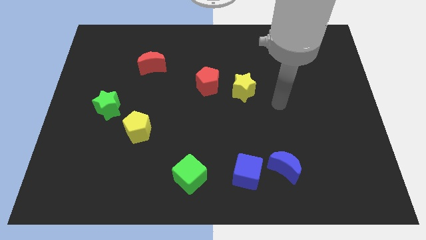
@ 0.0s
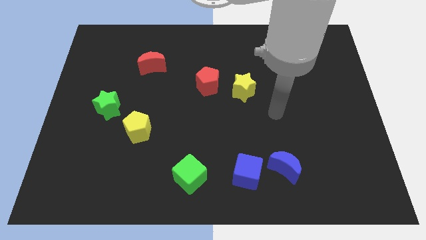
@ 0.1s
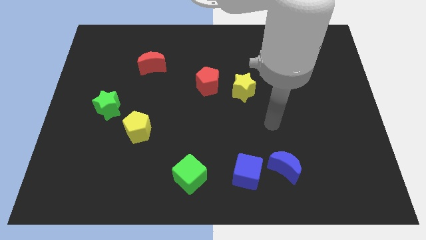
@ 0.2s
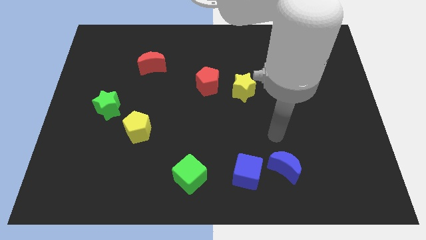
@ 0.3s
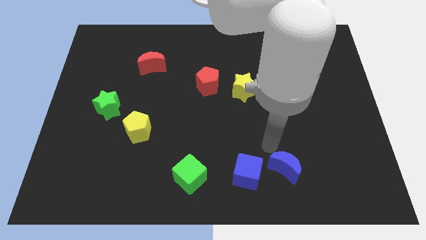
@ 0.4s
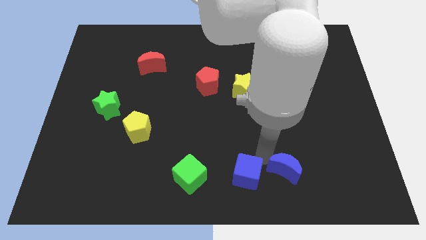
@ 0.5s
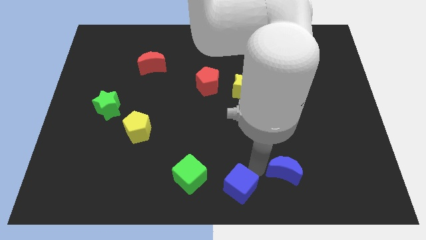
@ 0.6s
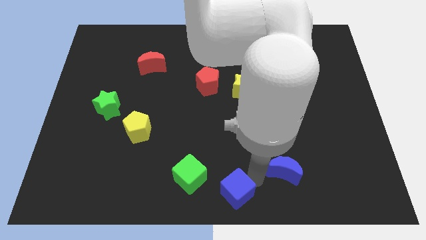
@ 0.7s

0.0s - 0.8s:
move the blue moon away from the blue cube

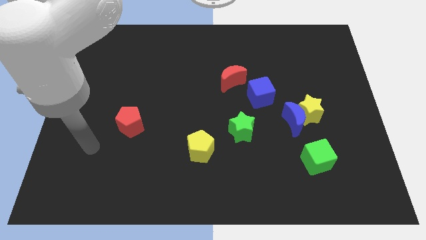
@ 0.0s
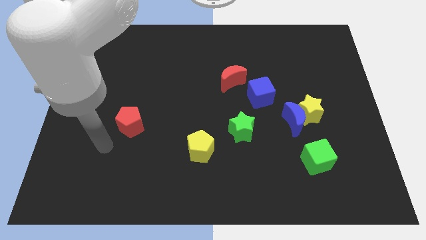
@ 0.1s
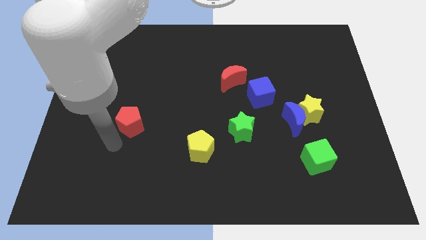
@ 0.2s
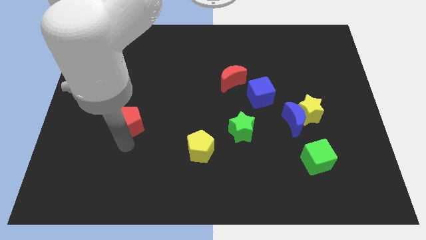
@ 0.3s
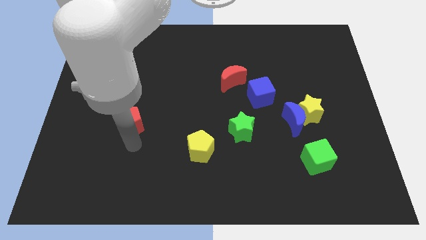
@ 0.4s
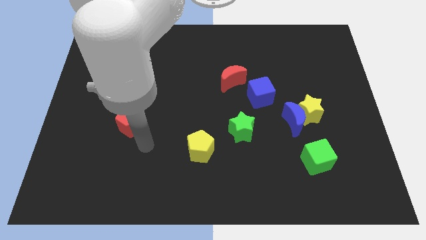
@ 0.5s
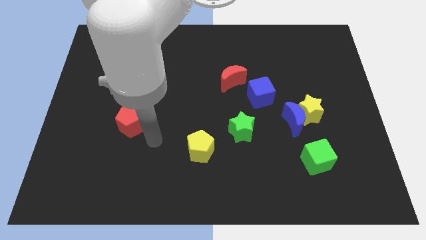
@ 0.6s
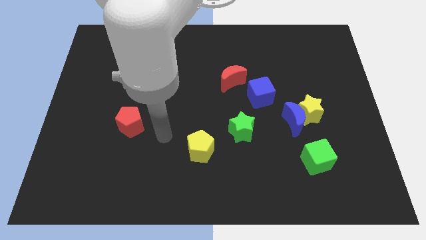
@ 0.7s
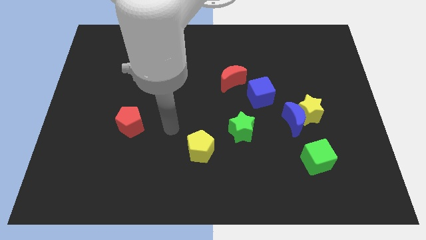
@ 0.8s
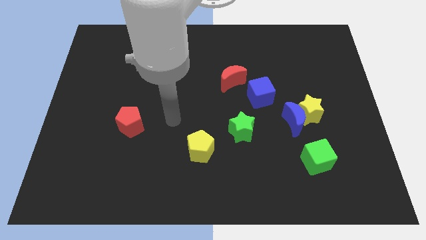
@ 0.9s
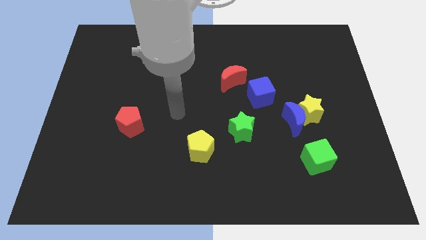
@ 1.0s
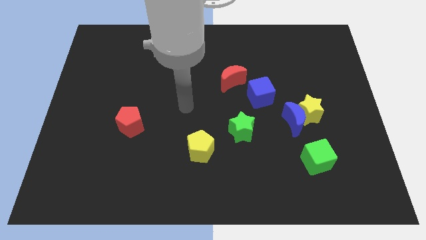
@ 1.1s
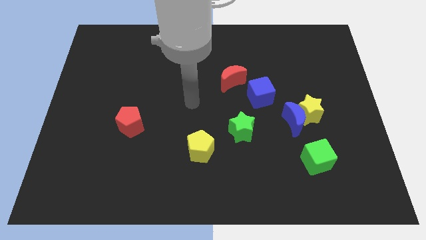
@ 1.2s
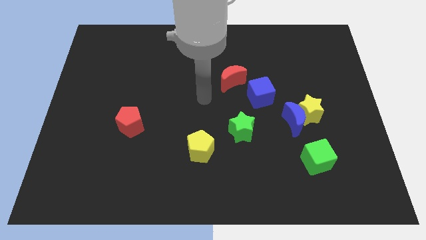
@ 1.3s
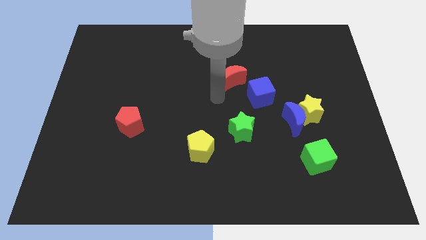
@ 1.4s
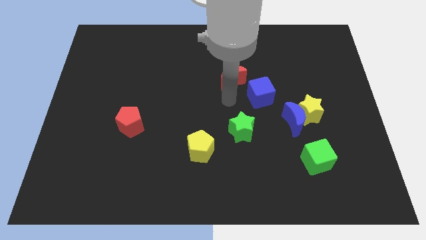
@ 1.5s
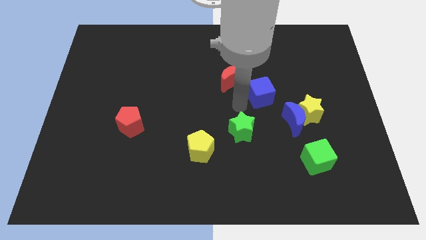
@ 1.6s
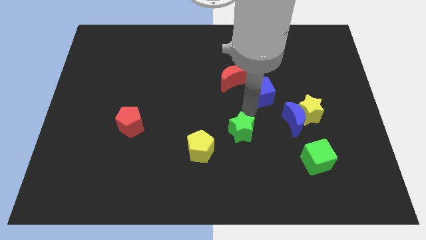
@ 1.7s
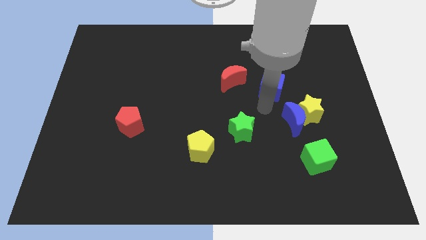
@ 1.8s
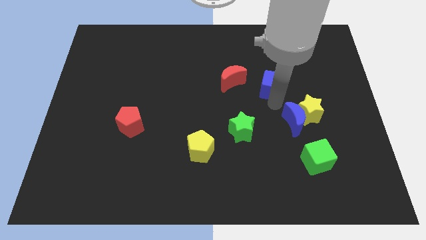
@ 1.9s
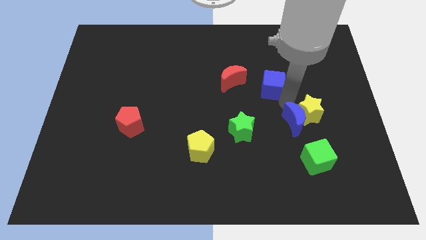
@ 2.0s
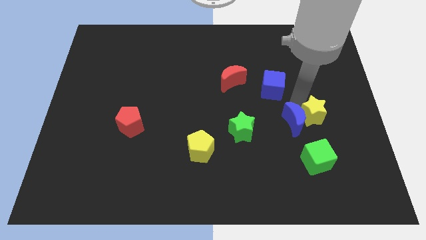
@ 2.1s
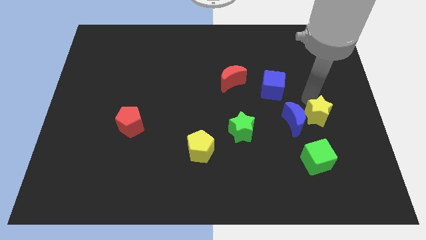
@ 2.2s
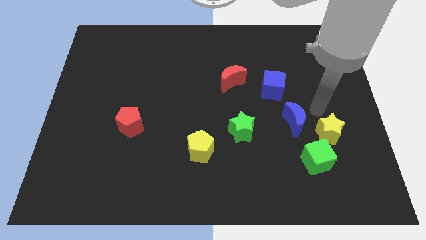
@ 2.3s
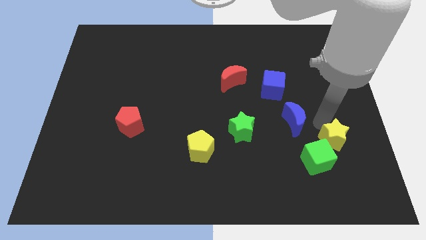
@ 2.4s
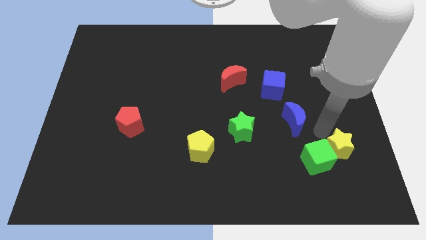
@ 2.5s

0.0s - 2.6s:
pull the blue moon apart from the yellow star

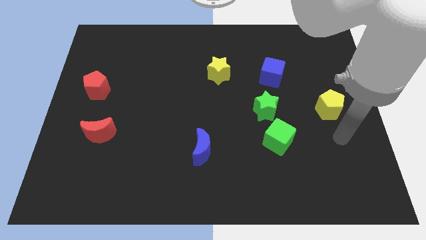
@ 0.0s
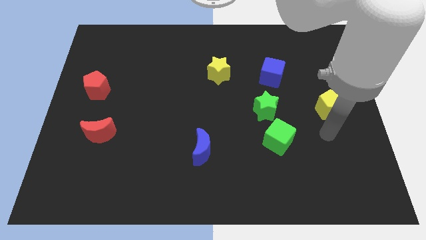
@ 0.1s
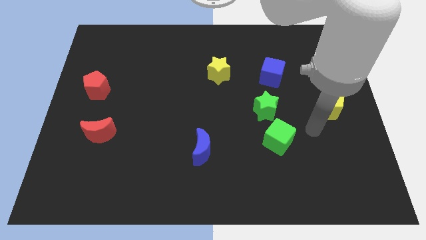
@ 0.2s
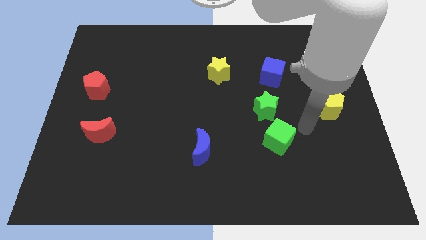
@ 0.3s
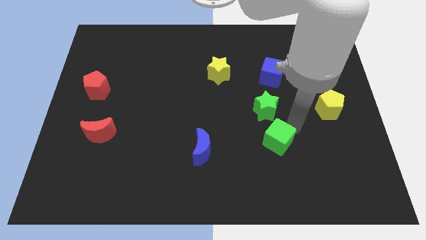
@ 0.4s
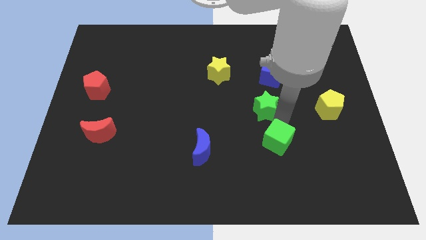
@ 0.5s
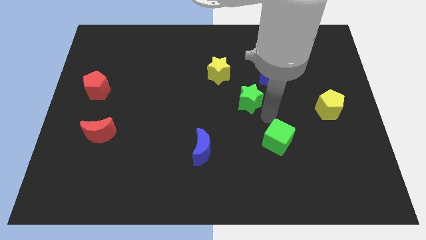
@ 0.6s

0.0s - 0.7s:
move the green cube away from the green star

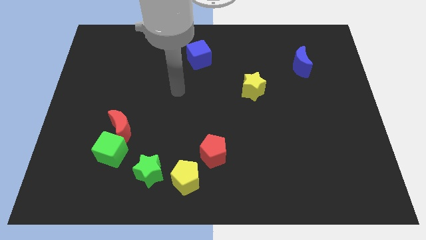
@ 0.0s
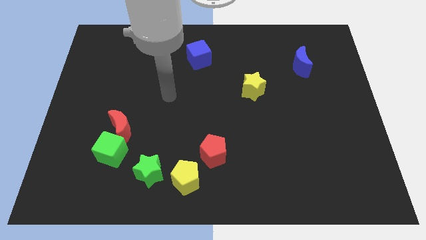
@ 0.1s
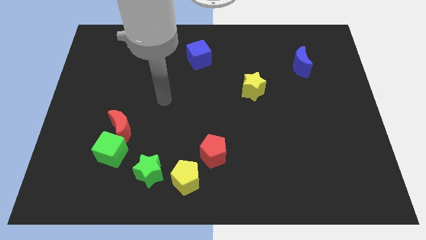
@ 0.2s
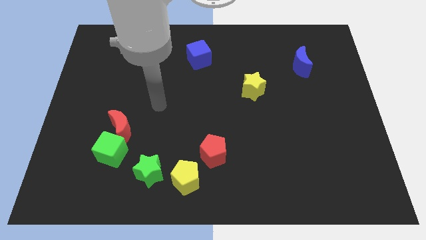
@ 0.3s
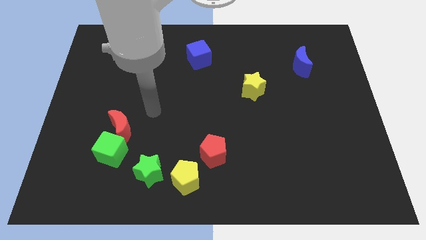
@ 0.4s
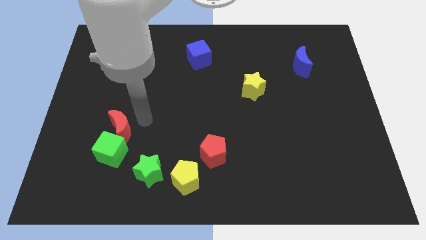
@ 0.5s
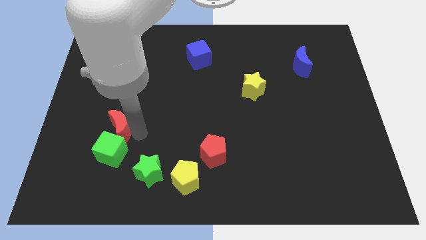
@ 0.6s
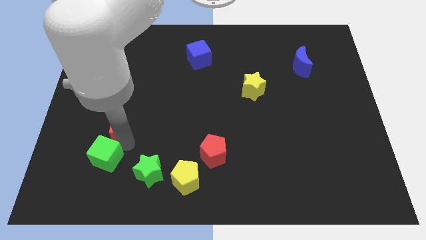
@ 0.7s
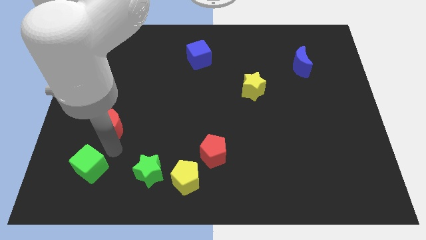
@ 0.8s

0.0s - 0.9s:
separate the red moon from the green cube

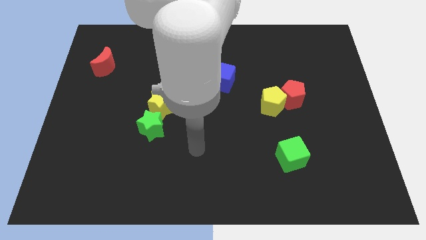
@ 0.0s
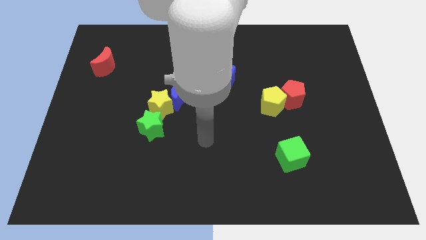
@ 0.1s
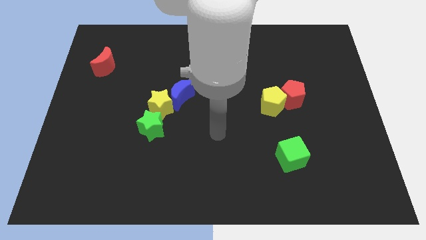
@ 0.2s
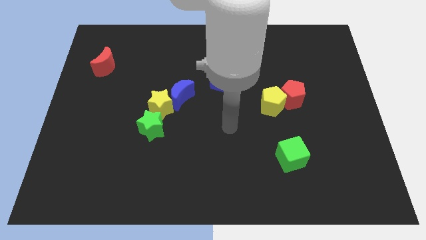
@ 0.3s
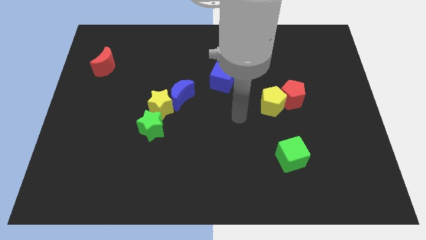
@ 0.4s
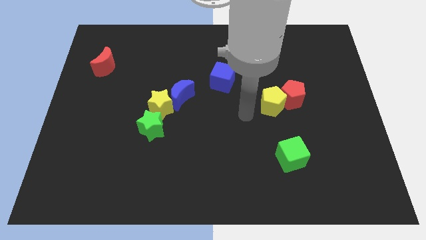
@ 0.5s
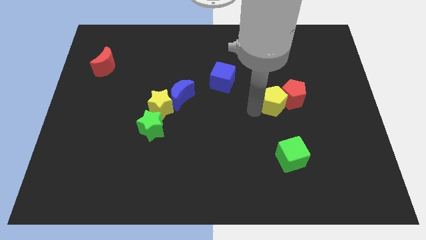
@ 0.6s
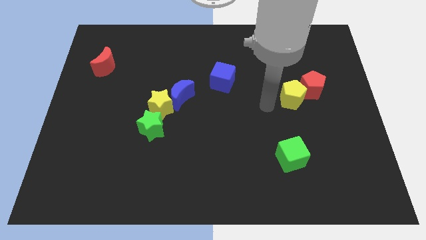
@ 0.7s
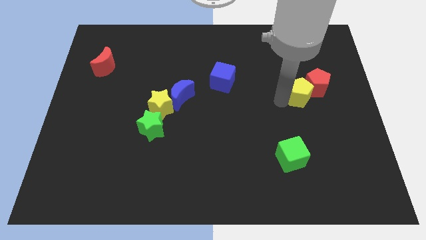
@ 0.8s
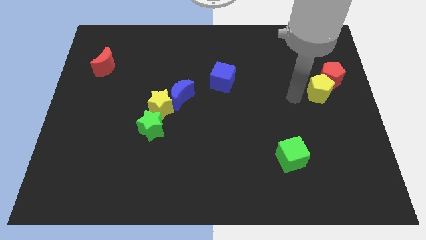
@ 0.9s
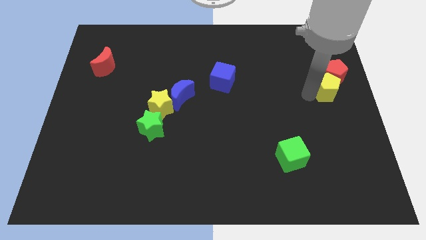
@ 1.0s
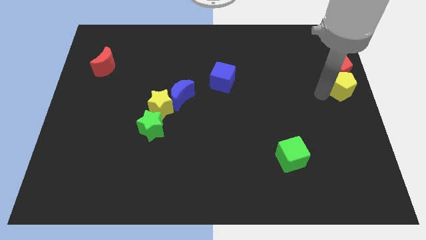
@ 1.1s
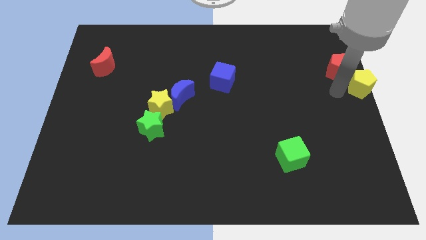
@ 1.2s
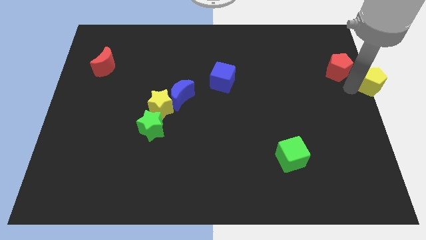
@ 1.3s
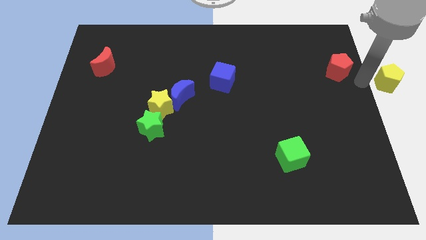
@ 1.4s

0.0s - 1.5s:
pull the red pentagon apart from the yellow pentagon

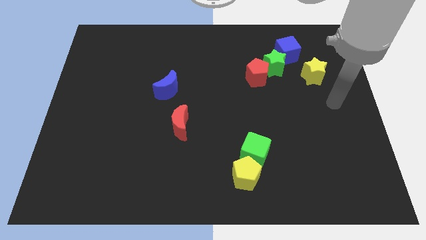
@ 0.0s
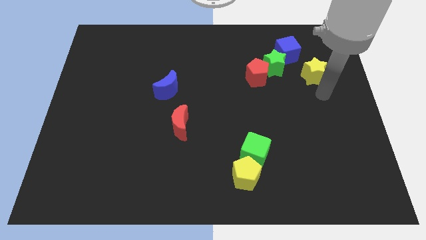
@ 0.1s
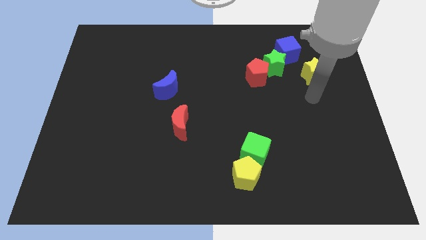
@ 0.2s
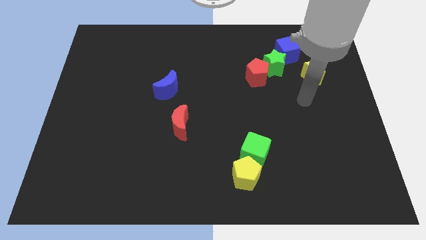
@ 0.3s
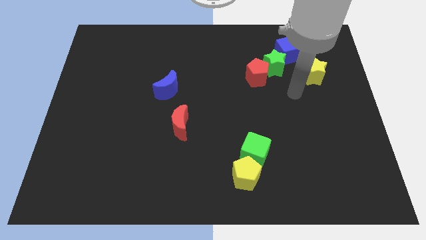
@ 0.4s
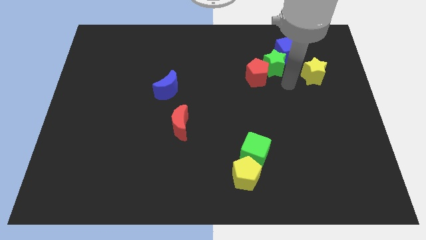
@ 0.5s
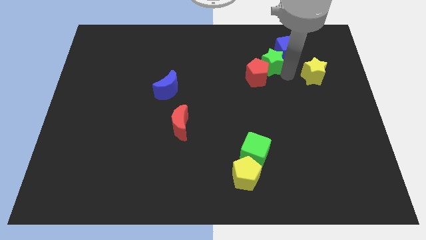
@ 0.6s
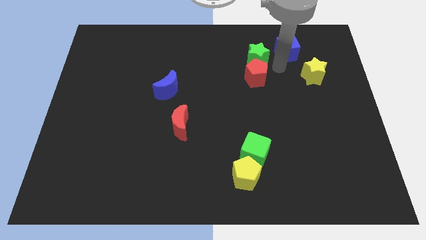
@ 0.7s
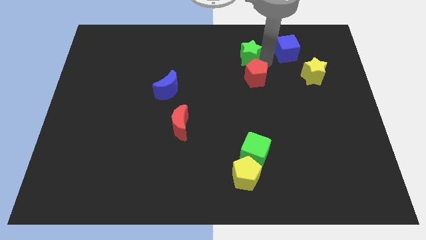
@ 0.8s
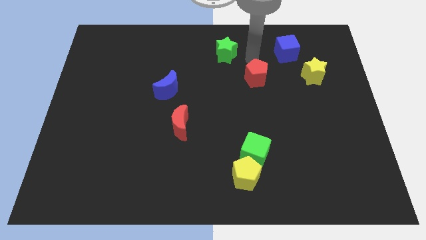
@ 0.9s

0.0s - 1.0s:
move the red pentagon away from the green star

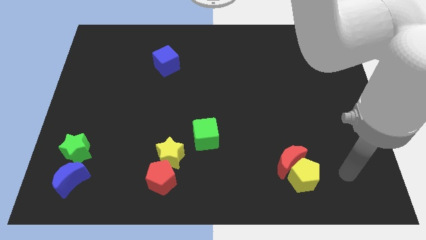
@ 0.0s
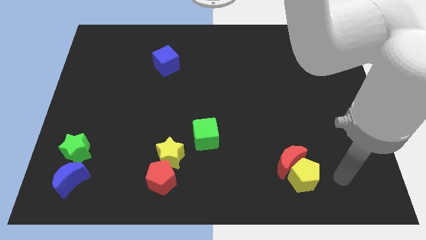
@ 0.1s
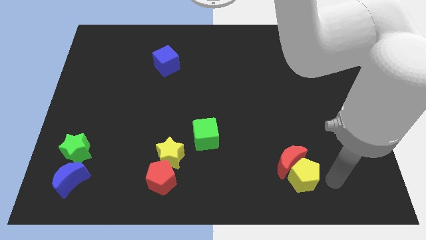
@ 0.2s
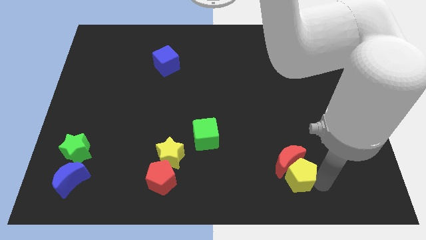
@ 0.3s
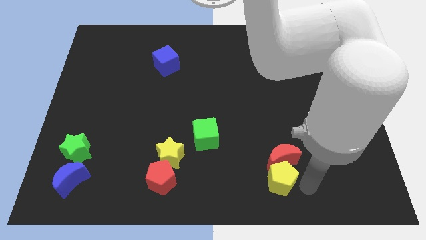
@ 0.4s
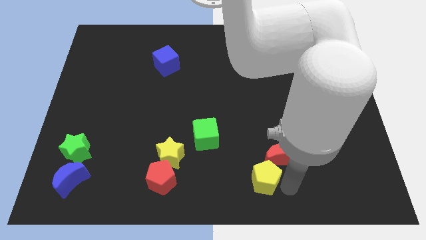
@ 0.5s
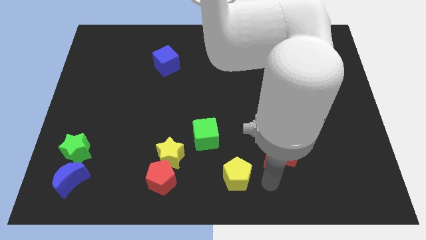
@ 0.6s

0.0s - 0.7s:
pull the red moon apart from the yellow pentagon

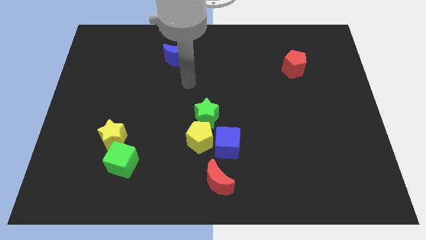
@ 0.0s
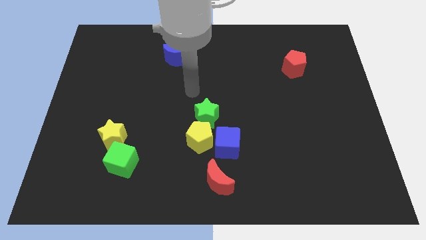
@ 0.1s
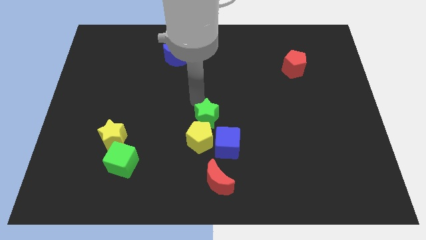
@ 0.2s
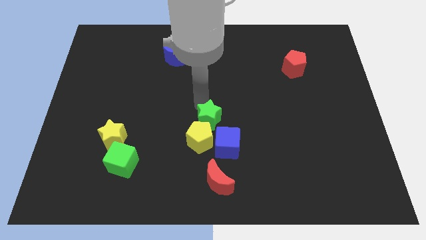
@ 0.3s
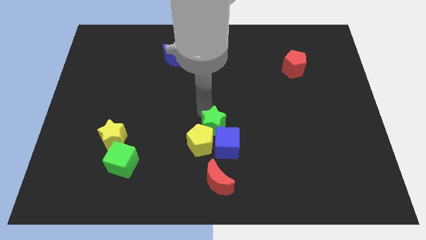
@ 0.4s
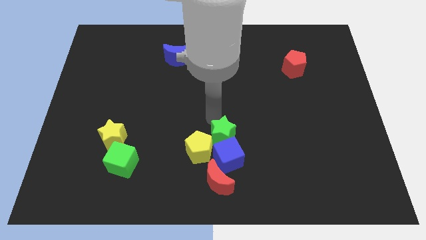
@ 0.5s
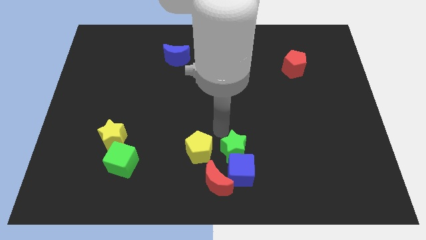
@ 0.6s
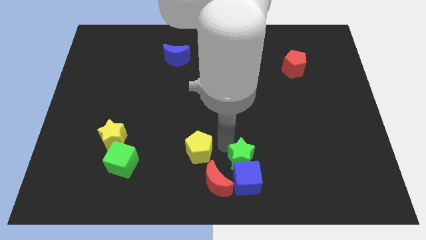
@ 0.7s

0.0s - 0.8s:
separate the yellow pentagon from the blue cube and green star

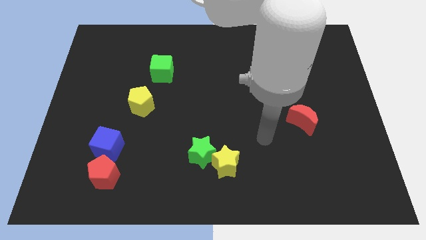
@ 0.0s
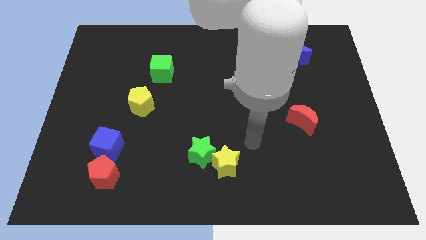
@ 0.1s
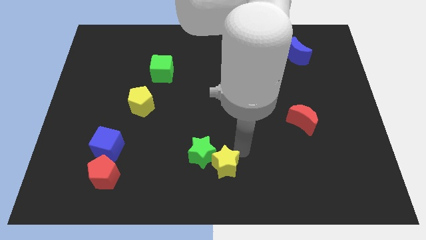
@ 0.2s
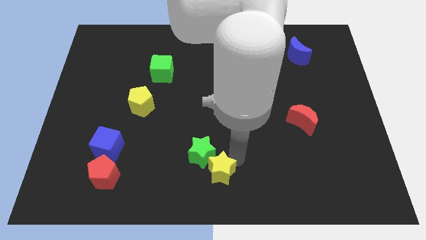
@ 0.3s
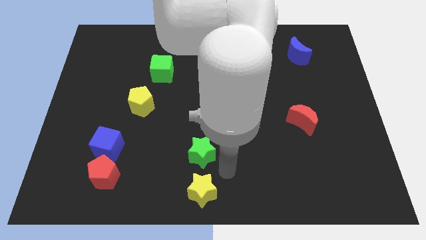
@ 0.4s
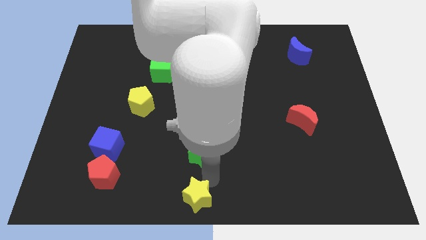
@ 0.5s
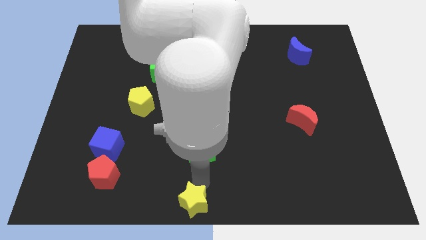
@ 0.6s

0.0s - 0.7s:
move the green star away from the yellow star
